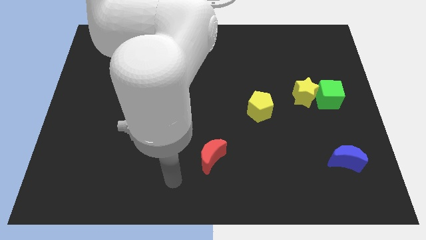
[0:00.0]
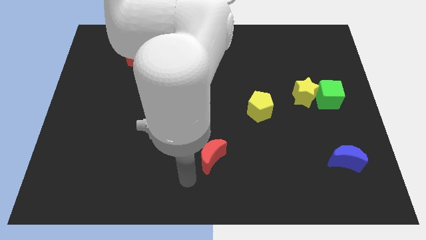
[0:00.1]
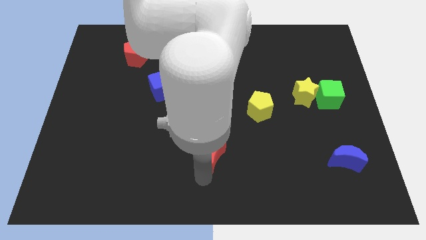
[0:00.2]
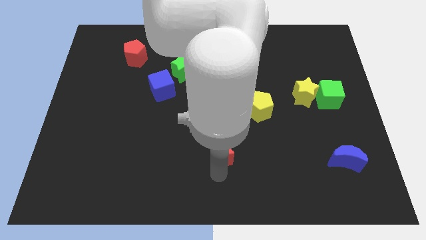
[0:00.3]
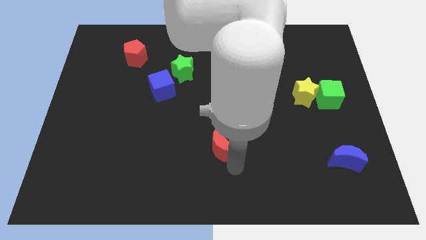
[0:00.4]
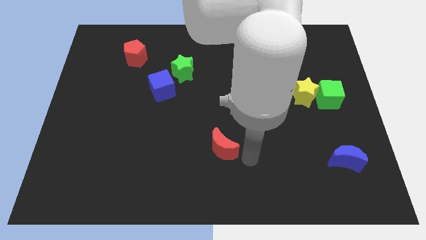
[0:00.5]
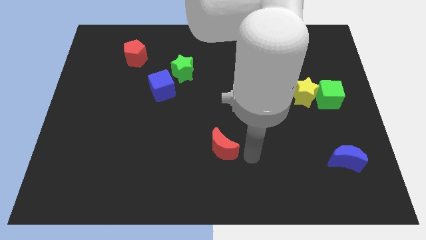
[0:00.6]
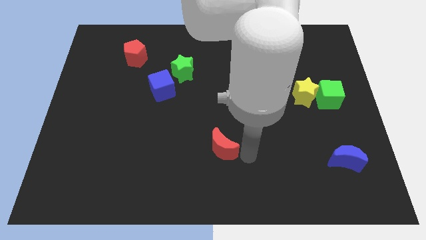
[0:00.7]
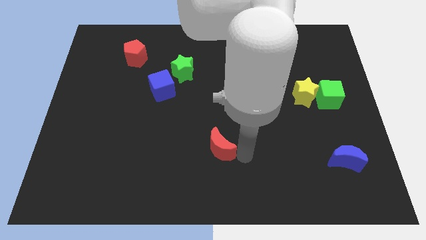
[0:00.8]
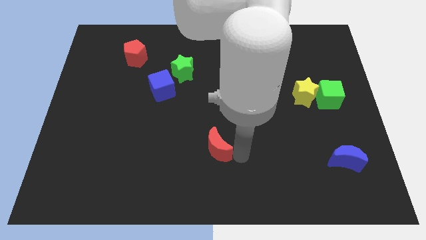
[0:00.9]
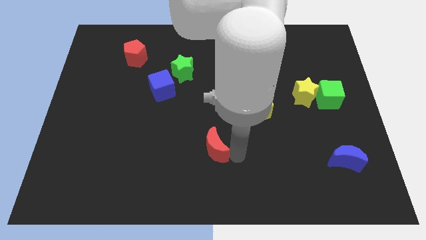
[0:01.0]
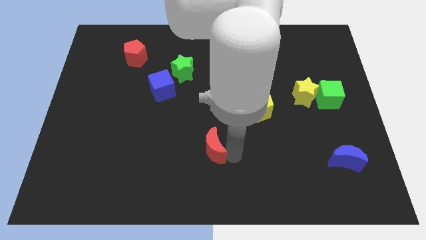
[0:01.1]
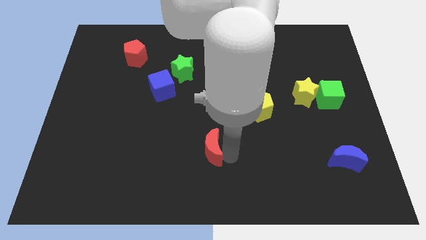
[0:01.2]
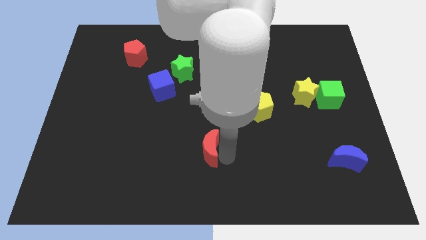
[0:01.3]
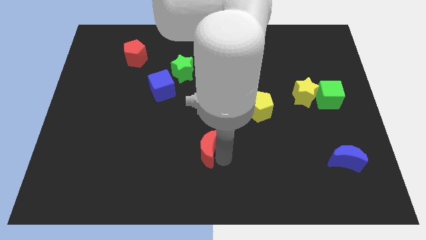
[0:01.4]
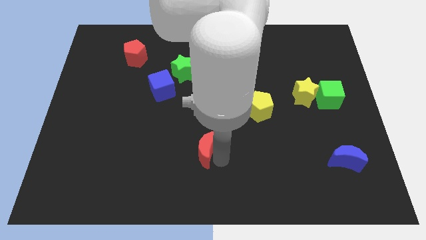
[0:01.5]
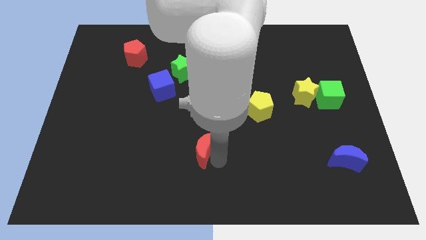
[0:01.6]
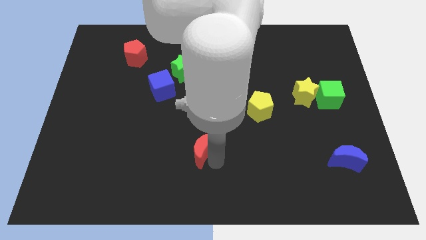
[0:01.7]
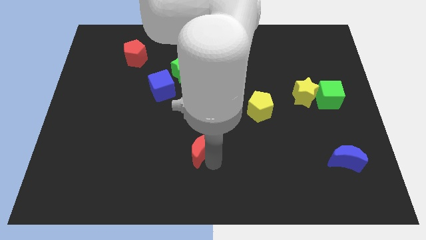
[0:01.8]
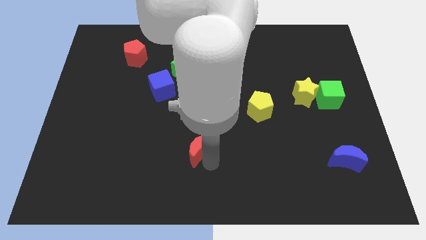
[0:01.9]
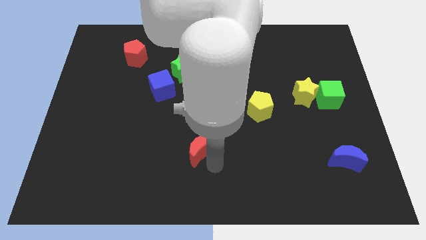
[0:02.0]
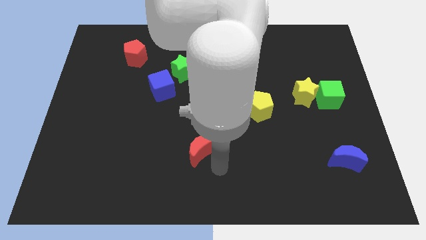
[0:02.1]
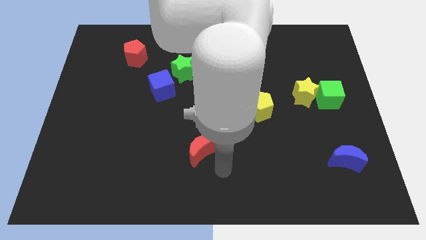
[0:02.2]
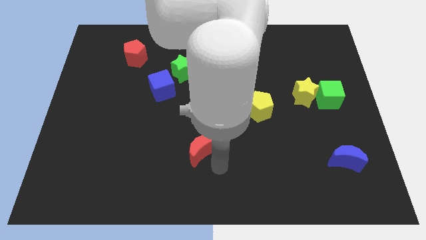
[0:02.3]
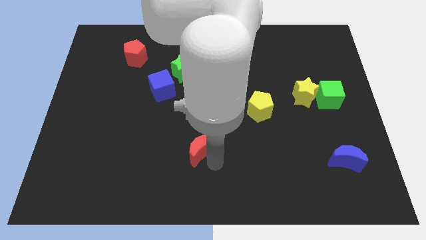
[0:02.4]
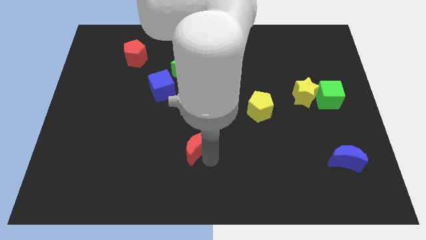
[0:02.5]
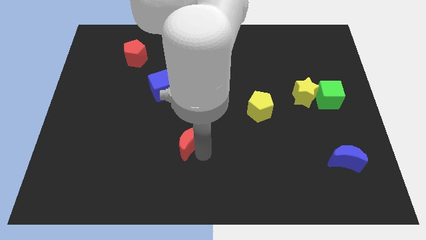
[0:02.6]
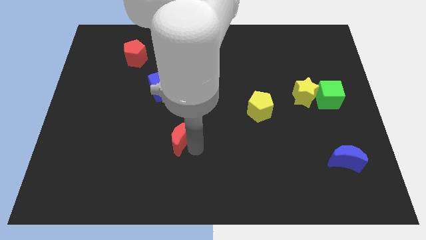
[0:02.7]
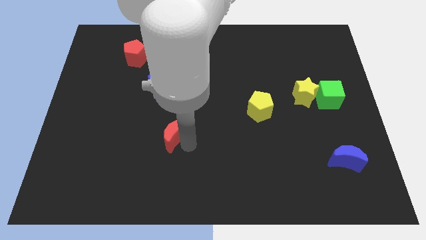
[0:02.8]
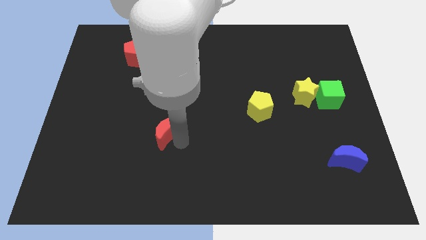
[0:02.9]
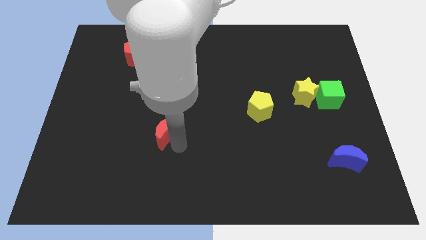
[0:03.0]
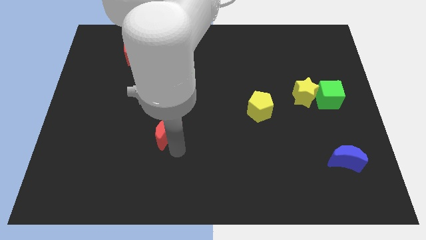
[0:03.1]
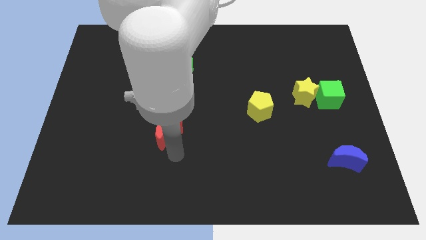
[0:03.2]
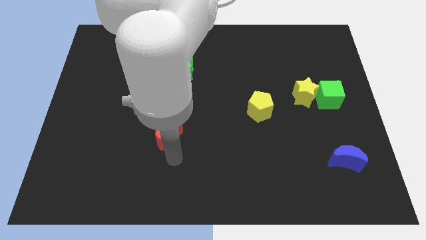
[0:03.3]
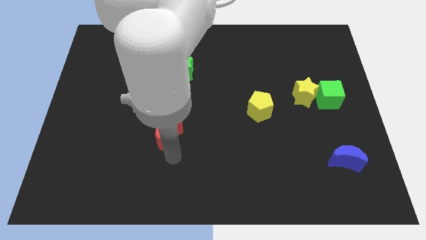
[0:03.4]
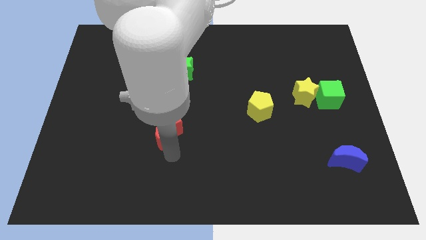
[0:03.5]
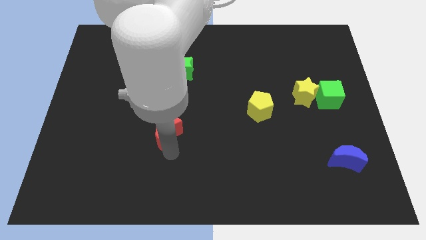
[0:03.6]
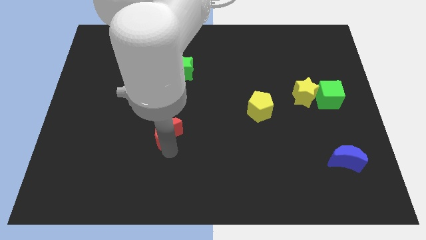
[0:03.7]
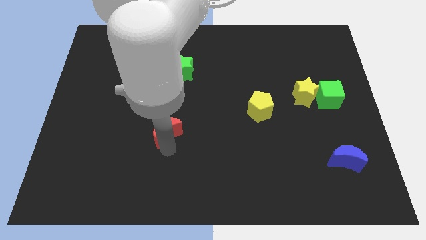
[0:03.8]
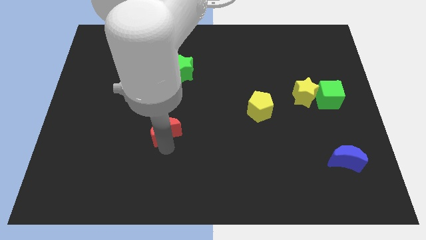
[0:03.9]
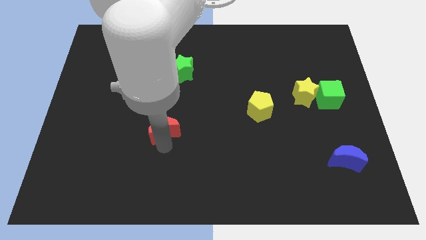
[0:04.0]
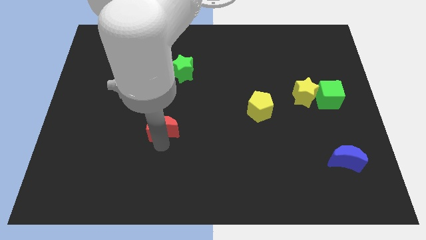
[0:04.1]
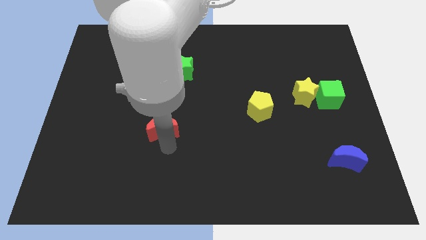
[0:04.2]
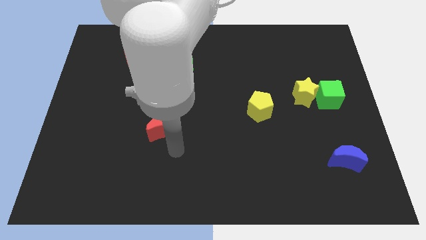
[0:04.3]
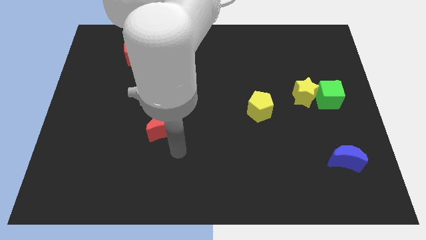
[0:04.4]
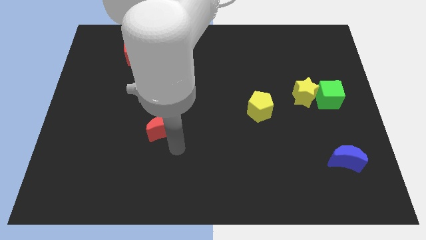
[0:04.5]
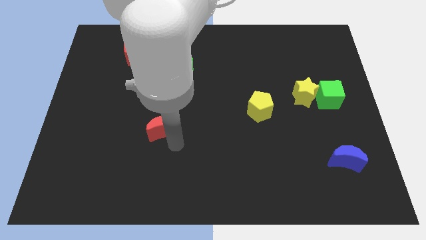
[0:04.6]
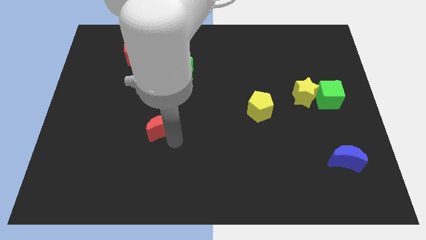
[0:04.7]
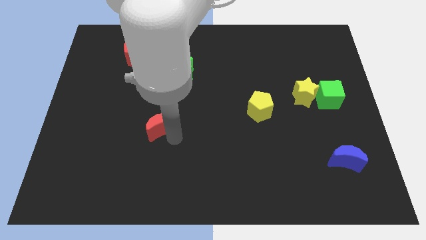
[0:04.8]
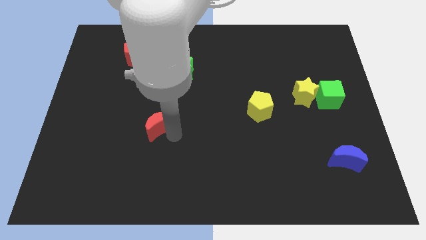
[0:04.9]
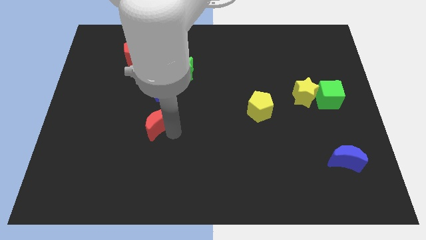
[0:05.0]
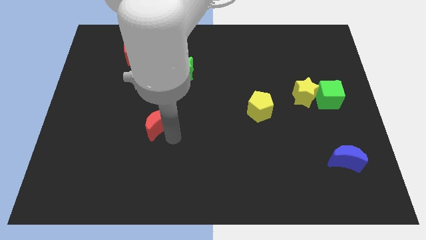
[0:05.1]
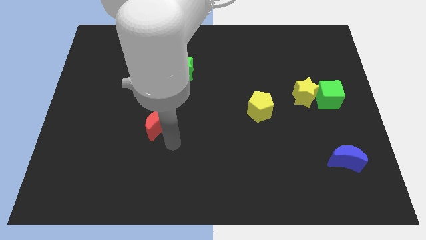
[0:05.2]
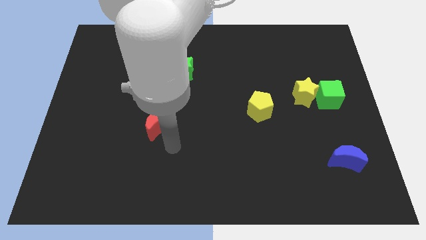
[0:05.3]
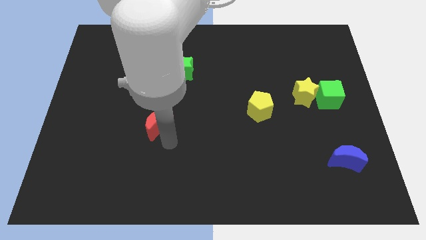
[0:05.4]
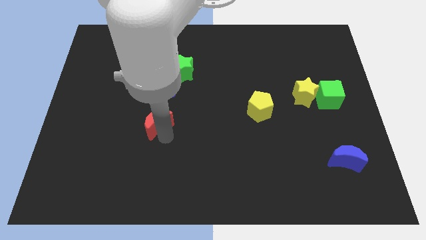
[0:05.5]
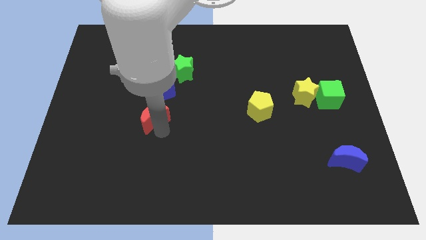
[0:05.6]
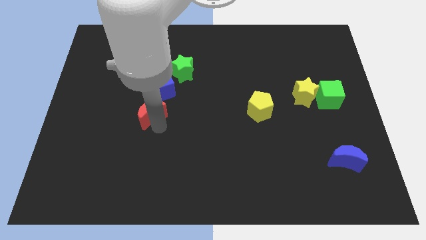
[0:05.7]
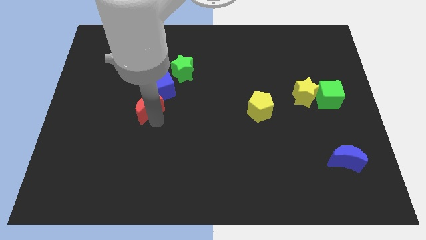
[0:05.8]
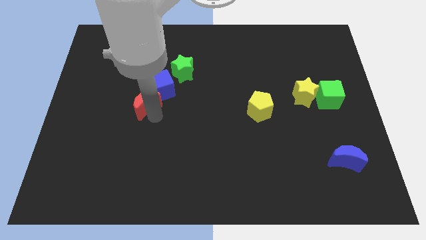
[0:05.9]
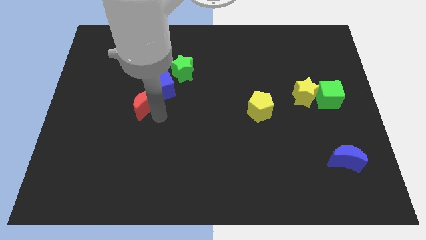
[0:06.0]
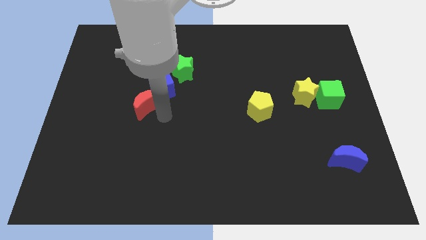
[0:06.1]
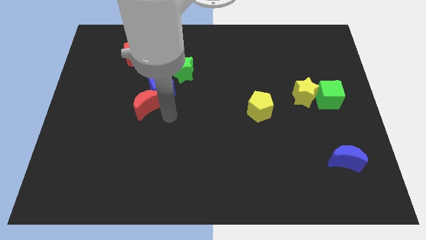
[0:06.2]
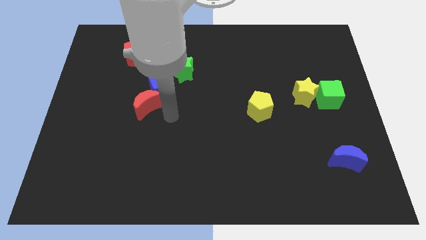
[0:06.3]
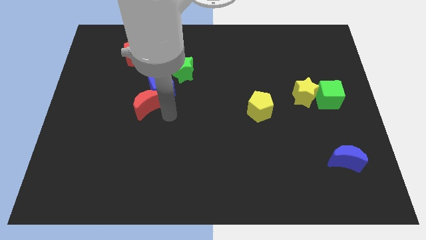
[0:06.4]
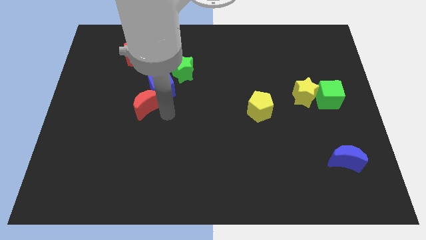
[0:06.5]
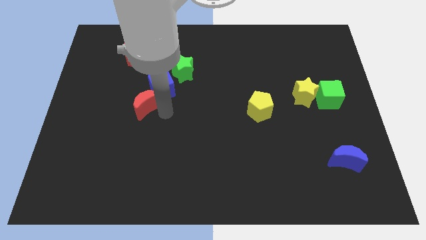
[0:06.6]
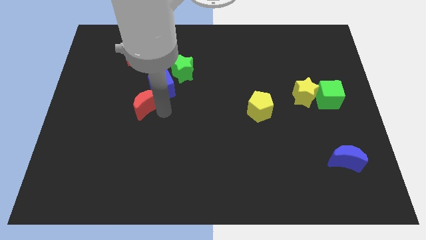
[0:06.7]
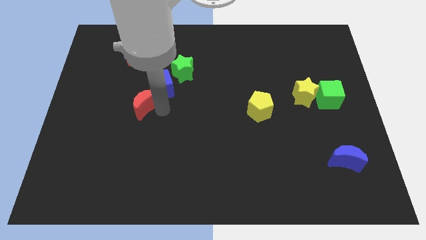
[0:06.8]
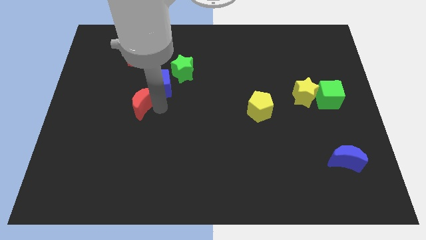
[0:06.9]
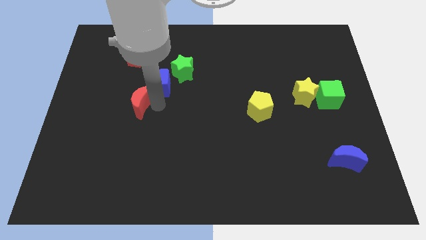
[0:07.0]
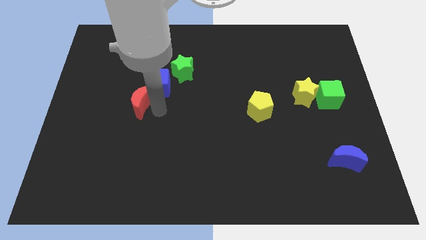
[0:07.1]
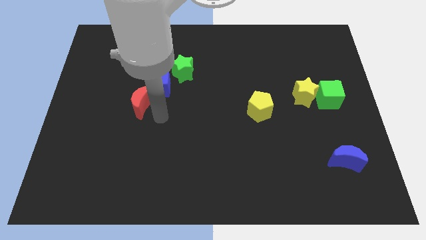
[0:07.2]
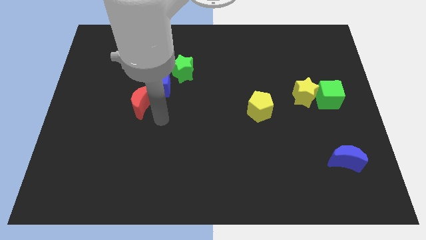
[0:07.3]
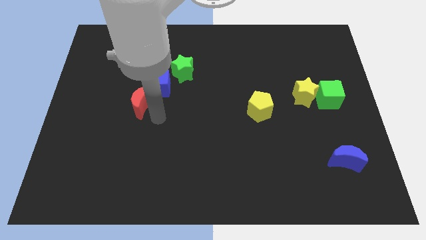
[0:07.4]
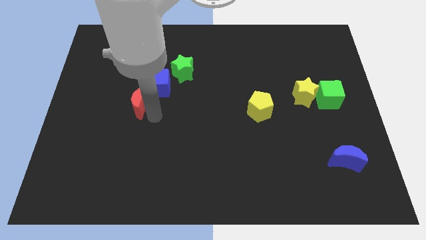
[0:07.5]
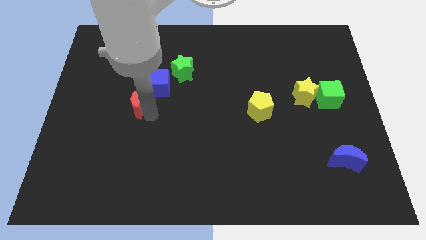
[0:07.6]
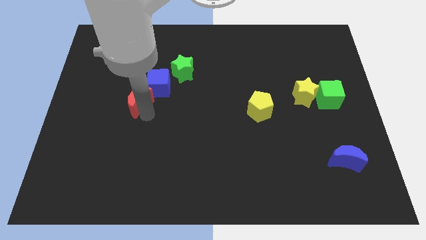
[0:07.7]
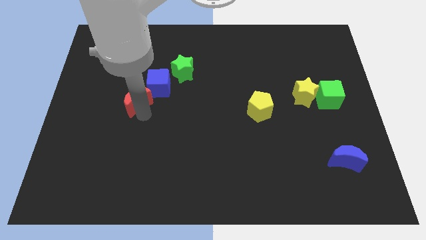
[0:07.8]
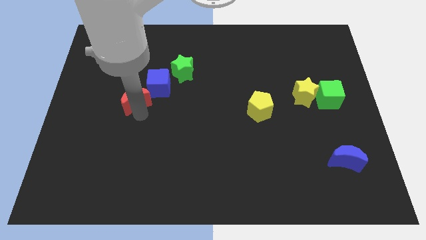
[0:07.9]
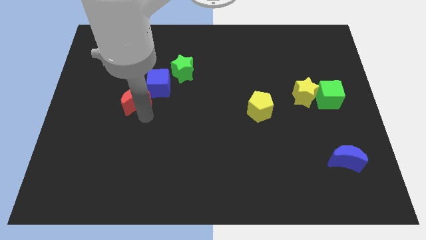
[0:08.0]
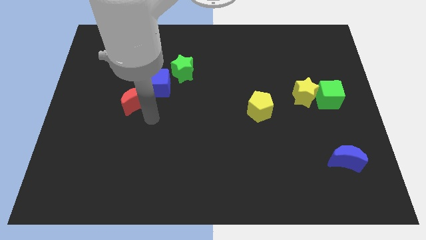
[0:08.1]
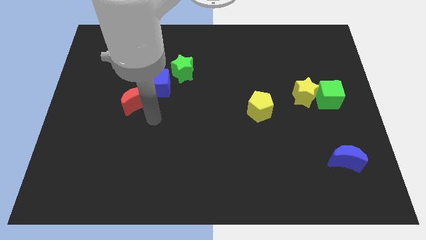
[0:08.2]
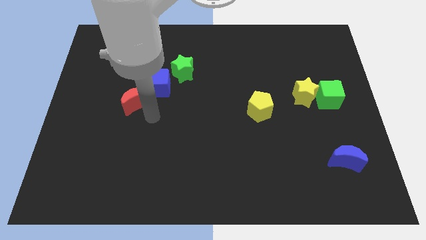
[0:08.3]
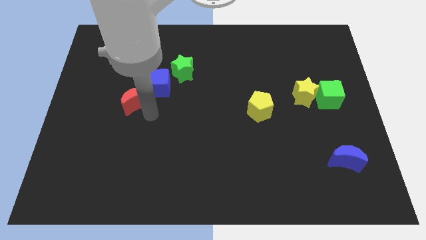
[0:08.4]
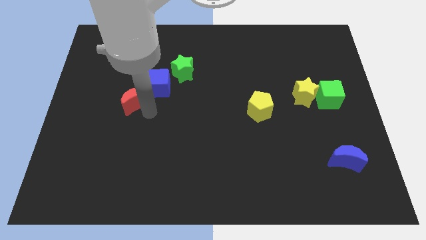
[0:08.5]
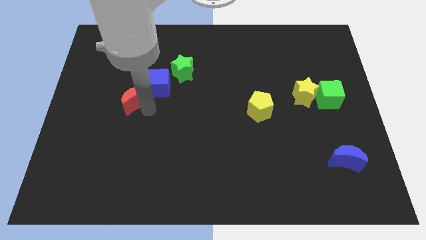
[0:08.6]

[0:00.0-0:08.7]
move the red moon to the left of the blue cube
